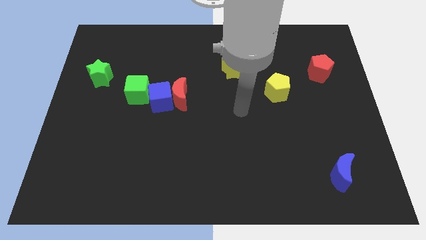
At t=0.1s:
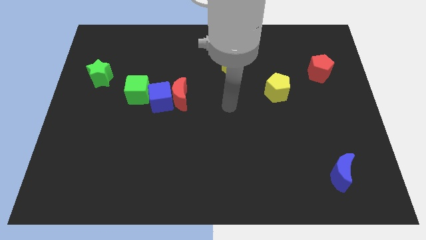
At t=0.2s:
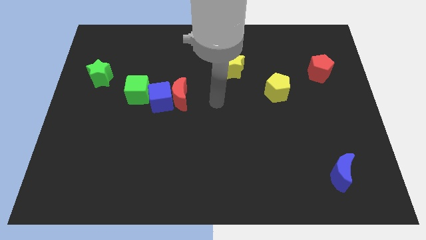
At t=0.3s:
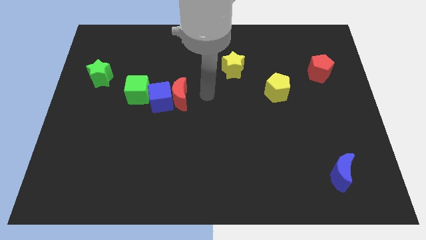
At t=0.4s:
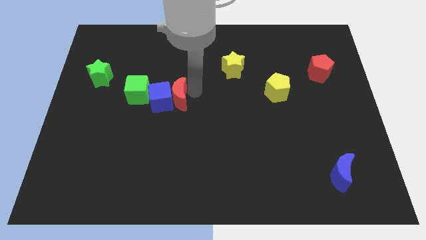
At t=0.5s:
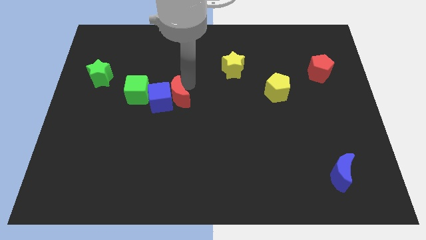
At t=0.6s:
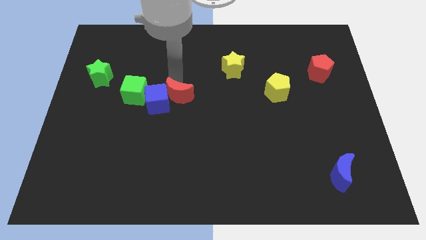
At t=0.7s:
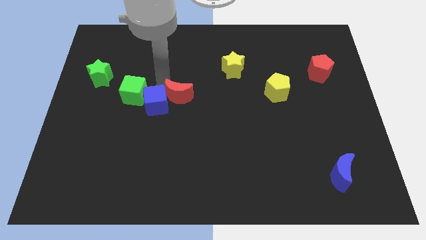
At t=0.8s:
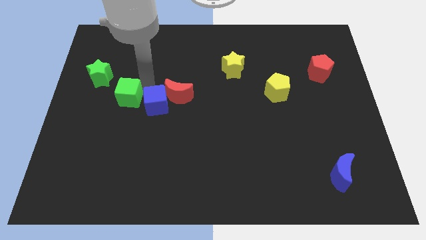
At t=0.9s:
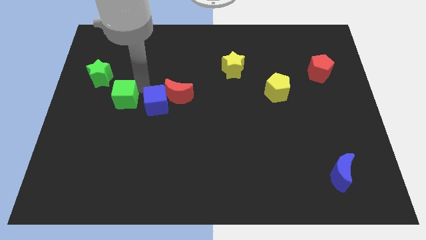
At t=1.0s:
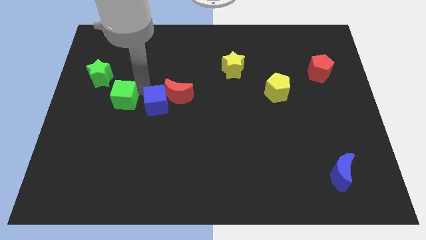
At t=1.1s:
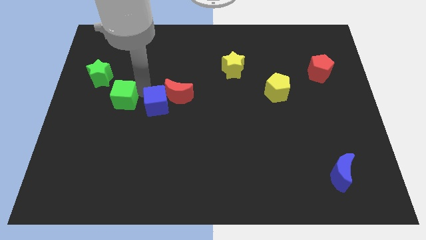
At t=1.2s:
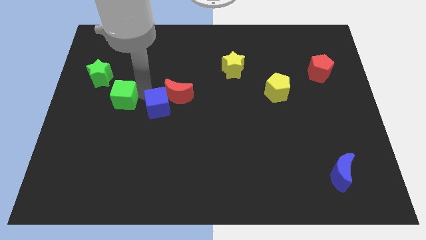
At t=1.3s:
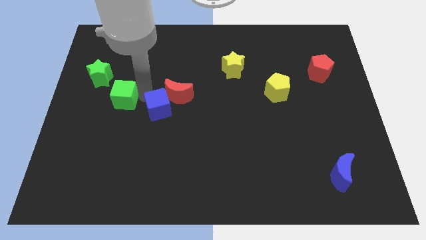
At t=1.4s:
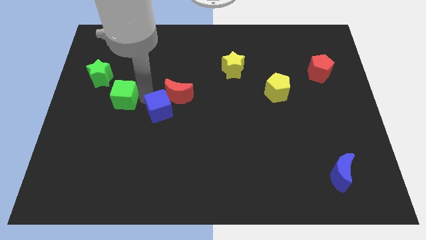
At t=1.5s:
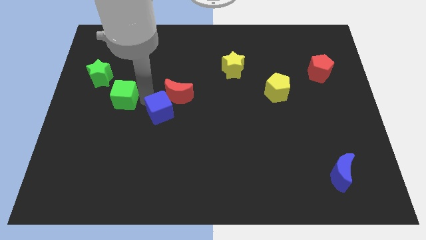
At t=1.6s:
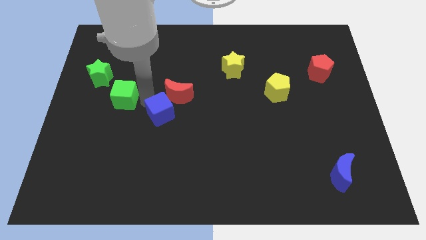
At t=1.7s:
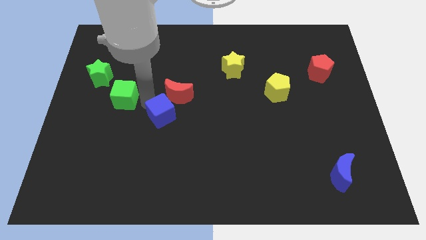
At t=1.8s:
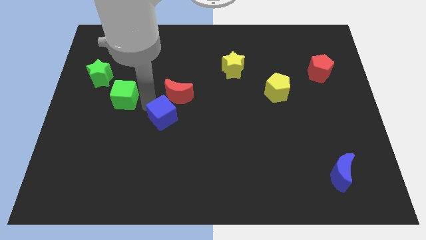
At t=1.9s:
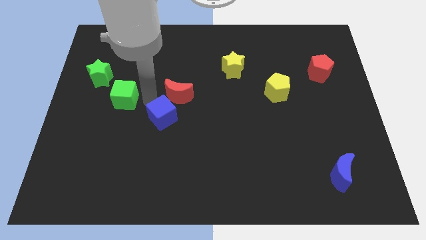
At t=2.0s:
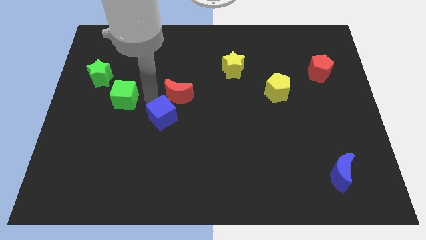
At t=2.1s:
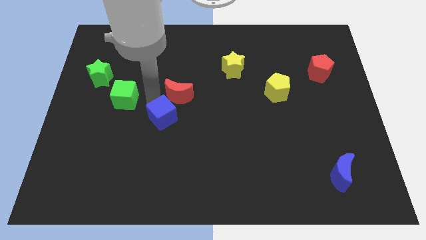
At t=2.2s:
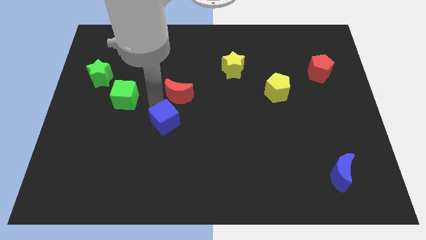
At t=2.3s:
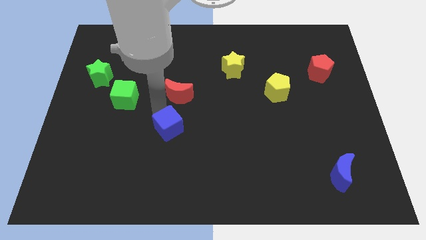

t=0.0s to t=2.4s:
move the blue cube away from the red moon and green cube

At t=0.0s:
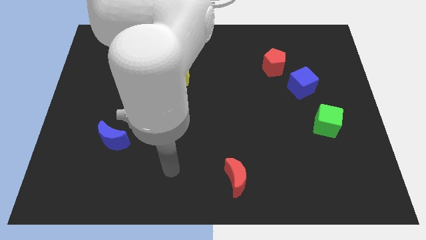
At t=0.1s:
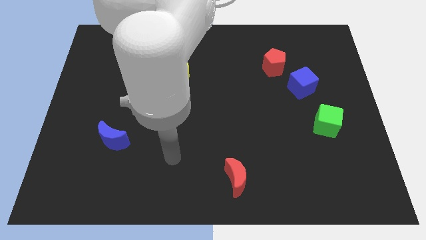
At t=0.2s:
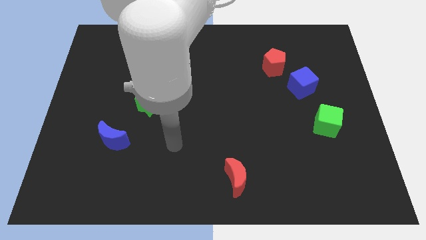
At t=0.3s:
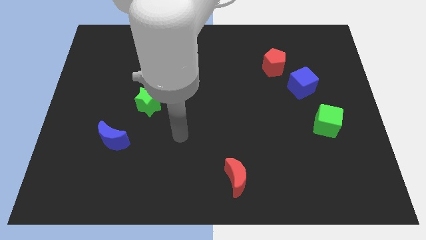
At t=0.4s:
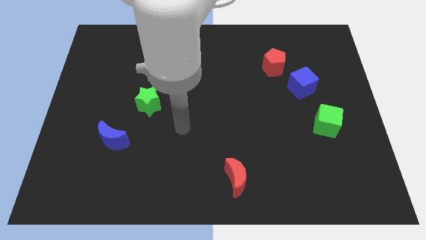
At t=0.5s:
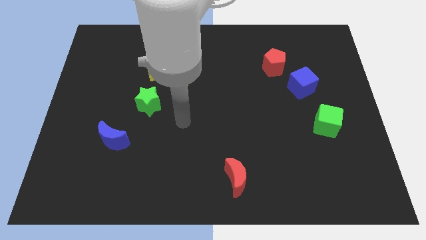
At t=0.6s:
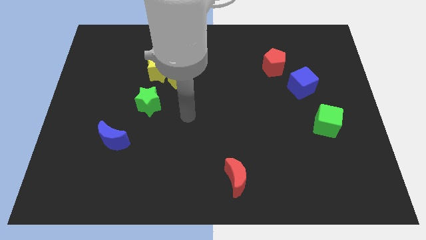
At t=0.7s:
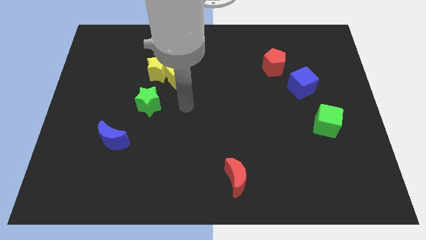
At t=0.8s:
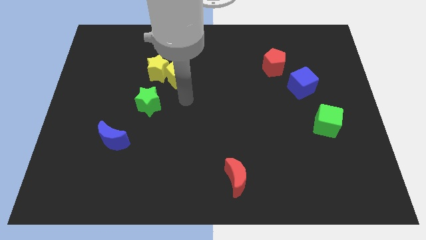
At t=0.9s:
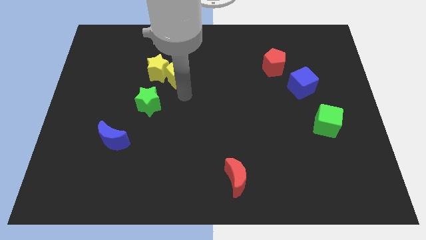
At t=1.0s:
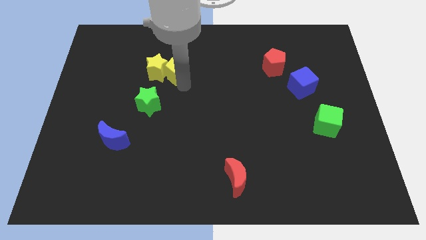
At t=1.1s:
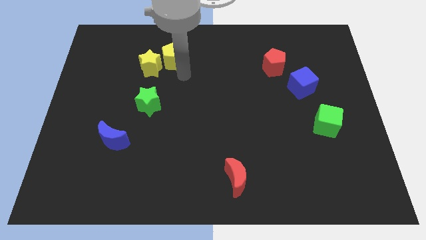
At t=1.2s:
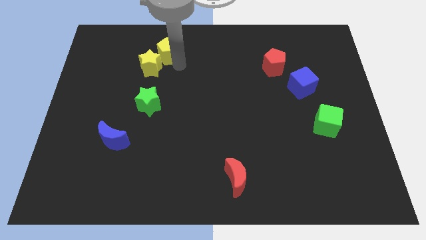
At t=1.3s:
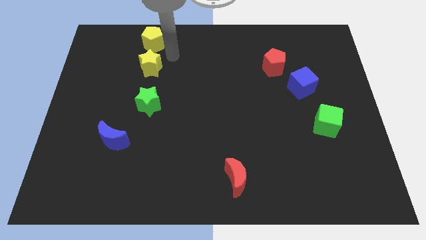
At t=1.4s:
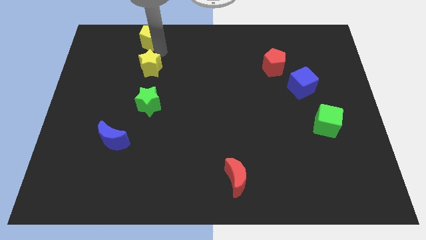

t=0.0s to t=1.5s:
move the yellow star away from the yellow pentagon

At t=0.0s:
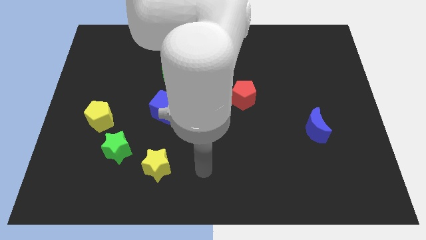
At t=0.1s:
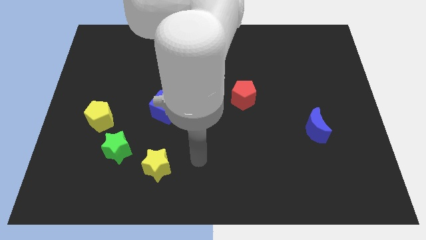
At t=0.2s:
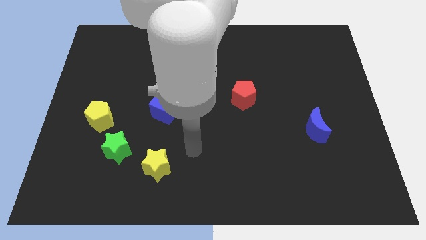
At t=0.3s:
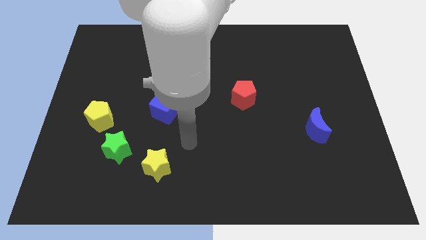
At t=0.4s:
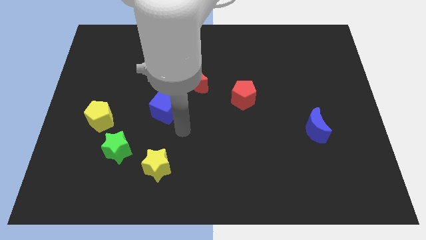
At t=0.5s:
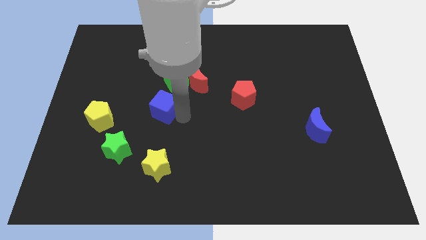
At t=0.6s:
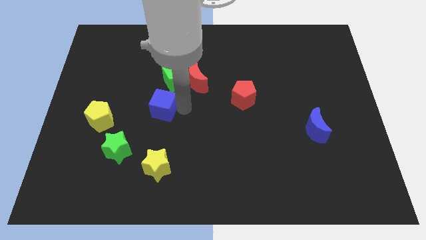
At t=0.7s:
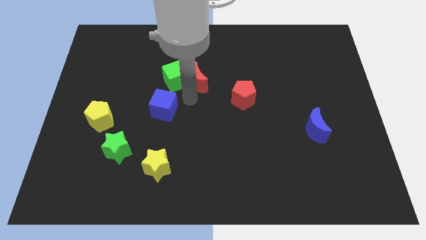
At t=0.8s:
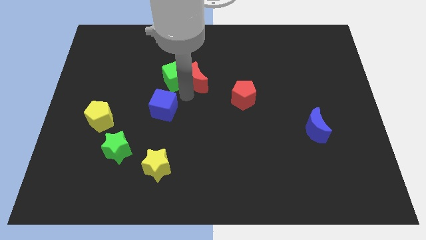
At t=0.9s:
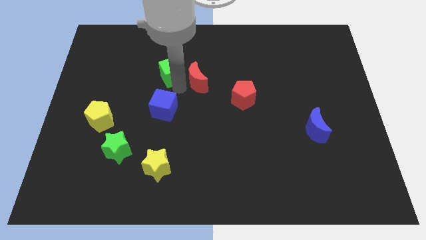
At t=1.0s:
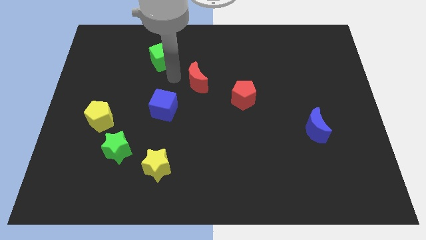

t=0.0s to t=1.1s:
pull the red moon apart from the green cube

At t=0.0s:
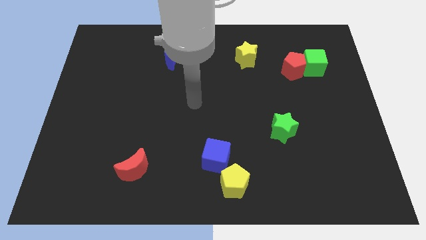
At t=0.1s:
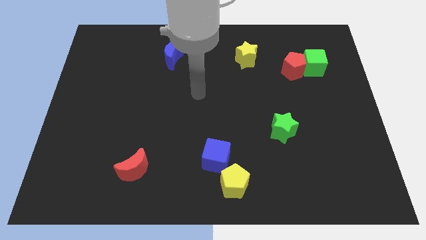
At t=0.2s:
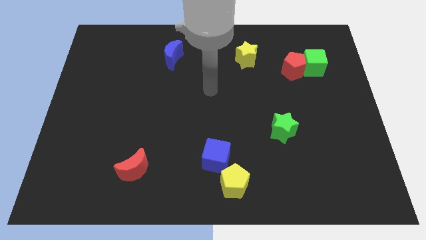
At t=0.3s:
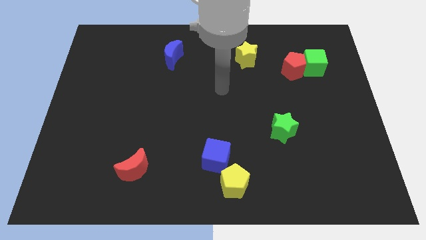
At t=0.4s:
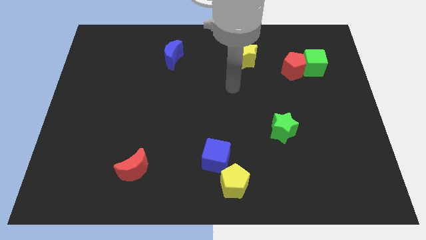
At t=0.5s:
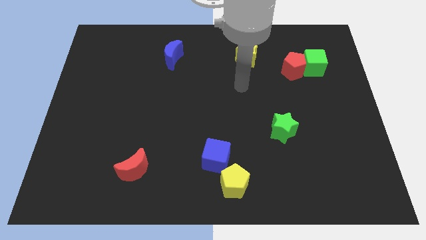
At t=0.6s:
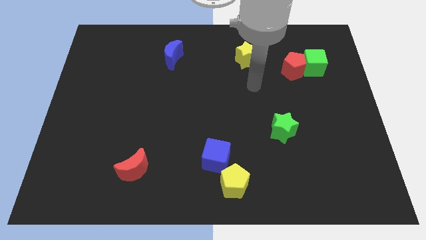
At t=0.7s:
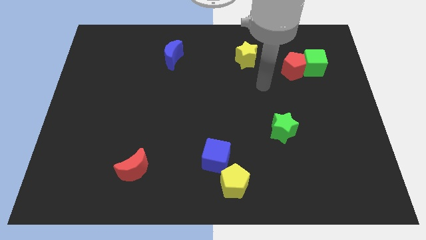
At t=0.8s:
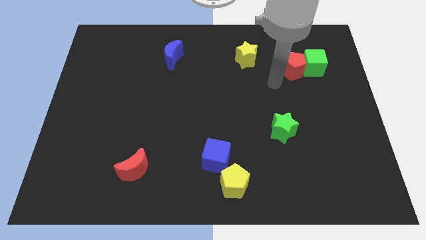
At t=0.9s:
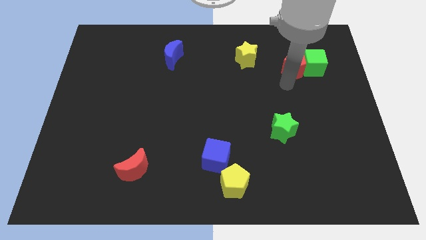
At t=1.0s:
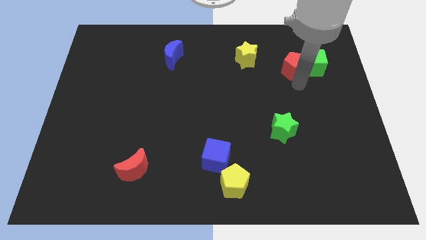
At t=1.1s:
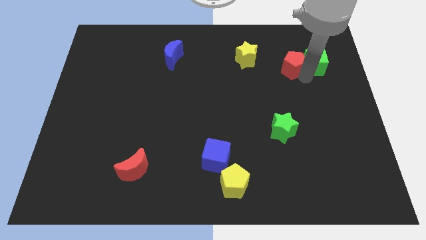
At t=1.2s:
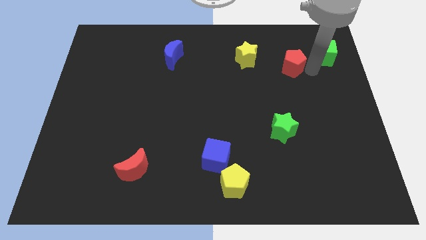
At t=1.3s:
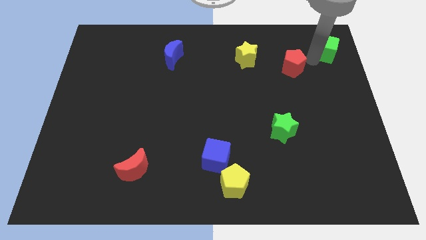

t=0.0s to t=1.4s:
move the red pentagon away from the green cube

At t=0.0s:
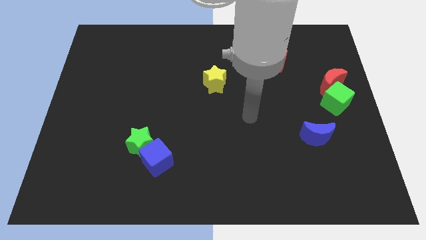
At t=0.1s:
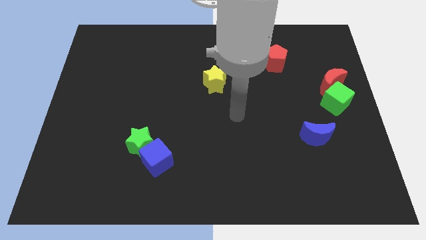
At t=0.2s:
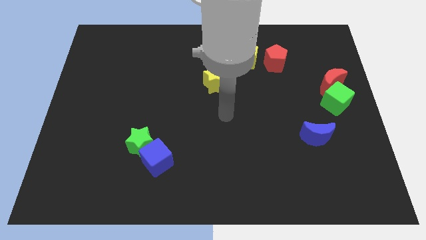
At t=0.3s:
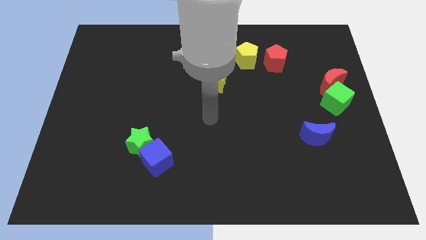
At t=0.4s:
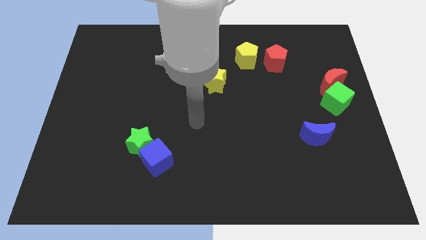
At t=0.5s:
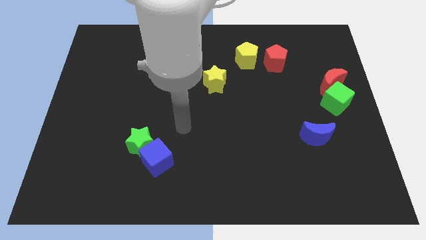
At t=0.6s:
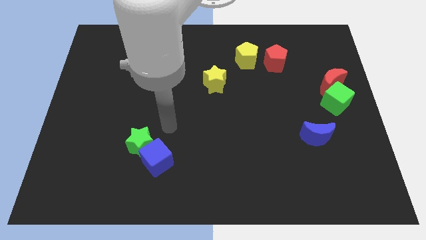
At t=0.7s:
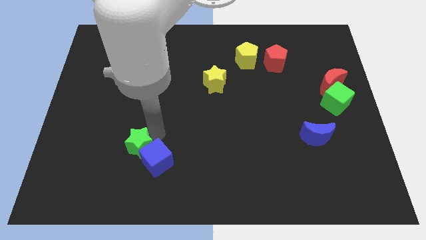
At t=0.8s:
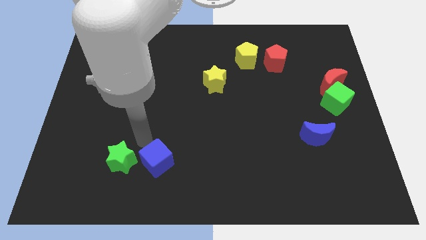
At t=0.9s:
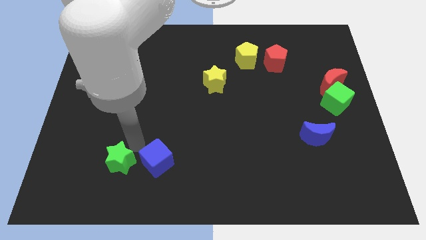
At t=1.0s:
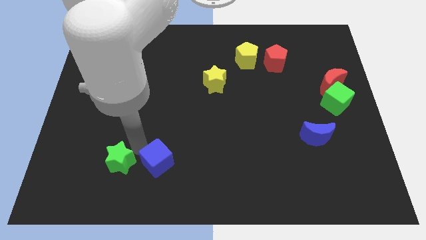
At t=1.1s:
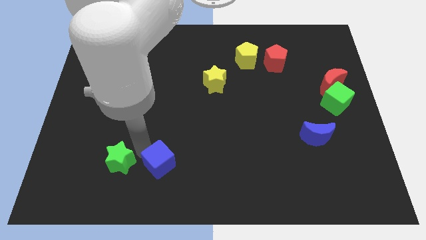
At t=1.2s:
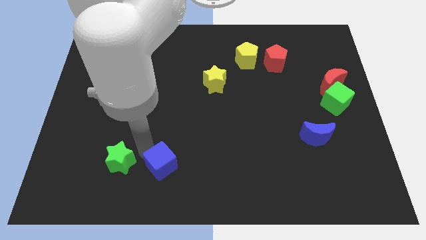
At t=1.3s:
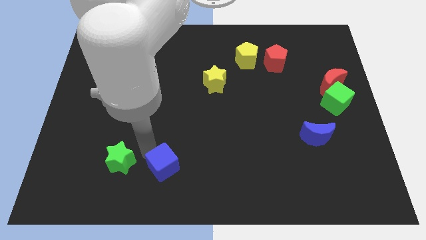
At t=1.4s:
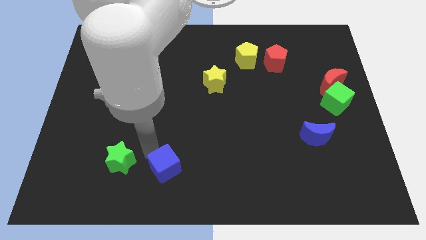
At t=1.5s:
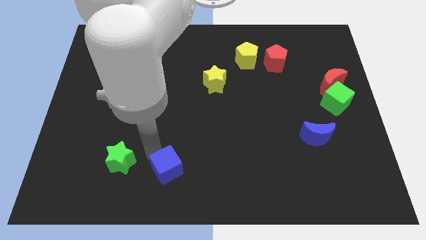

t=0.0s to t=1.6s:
pull the blue cube apart from the green star

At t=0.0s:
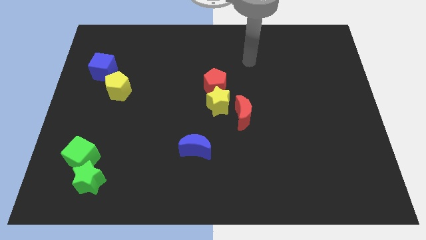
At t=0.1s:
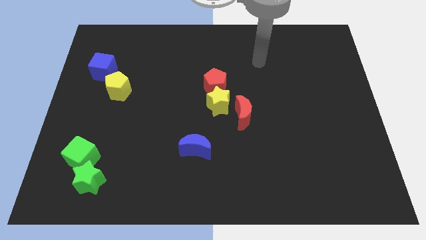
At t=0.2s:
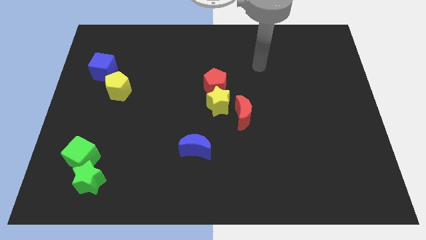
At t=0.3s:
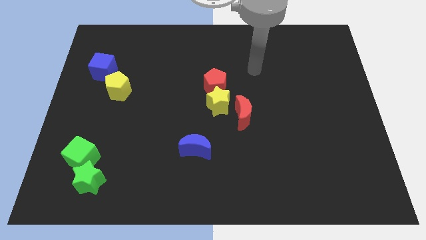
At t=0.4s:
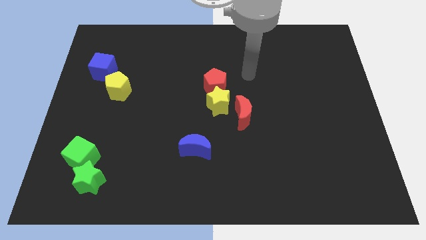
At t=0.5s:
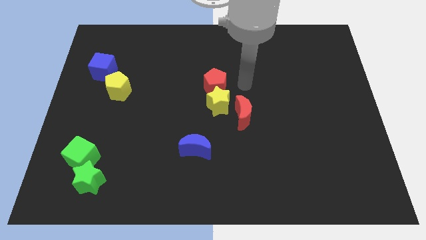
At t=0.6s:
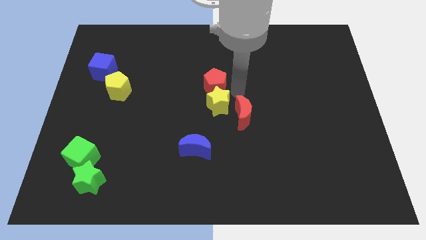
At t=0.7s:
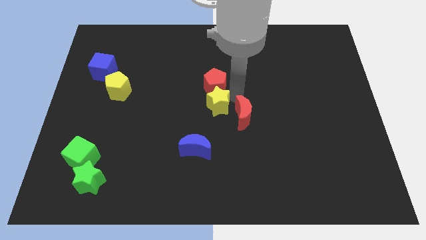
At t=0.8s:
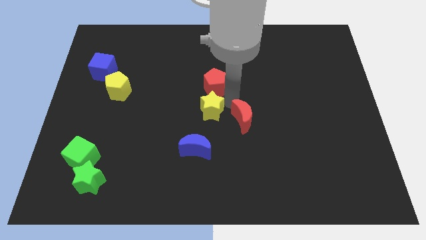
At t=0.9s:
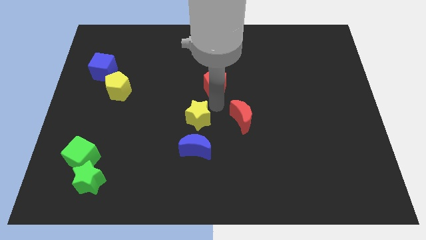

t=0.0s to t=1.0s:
move the red pentagon away from the yellow star

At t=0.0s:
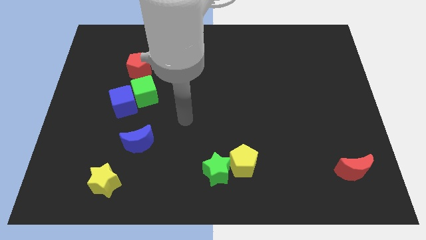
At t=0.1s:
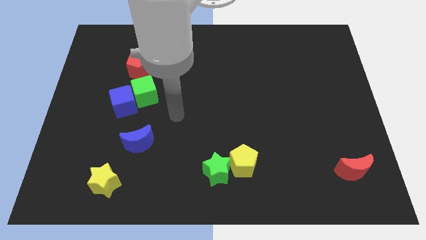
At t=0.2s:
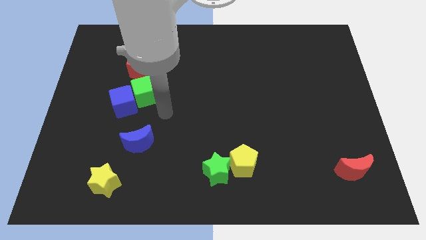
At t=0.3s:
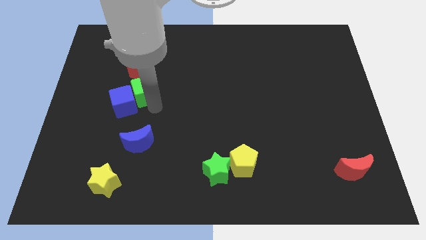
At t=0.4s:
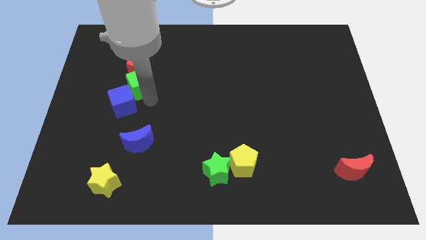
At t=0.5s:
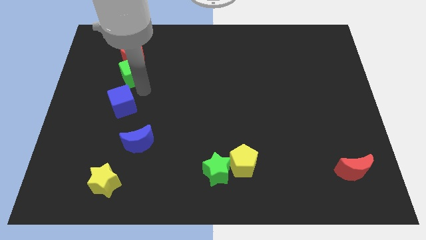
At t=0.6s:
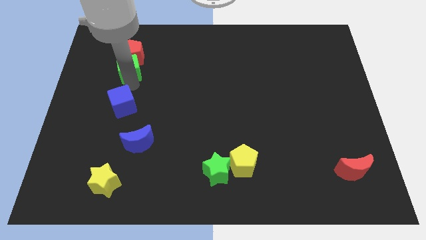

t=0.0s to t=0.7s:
separate the blue cube from the green cube
